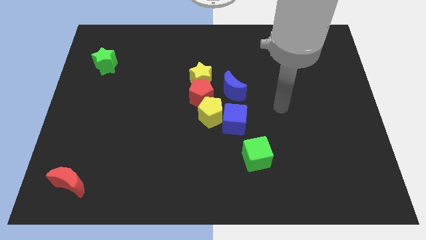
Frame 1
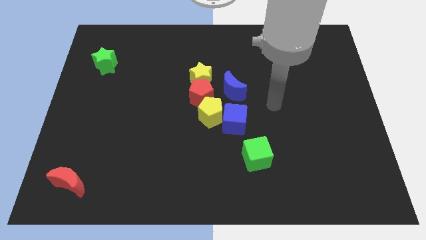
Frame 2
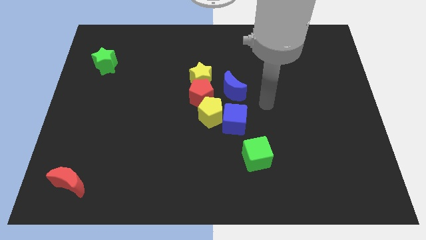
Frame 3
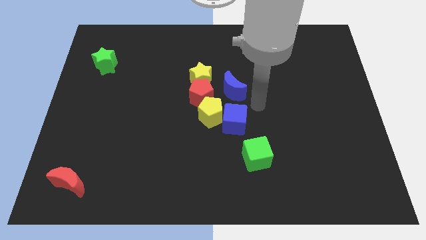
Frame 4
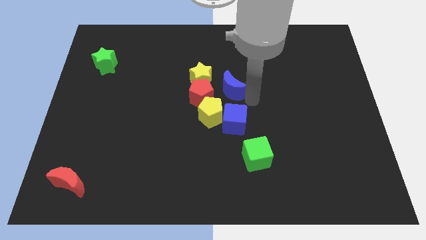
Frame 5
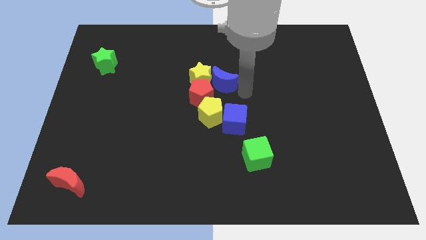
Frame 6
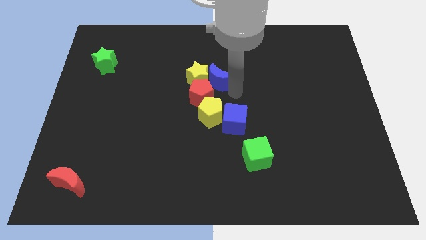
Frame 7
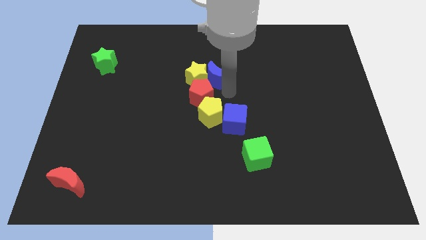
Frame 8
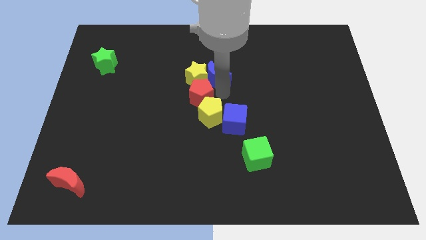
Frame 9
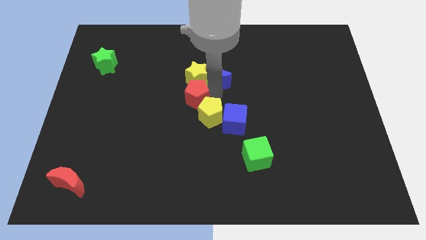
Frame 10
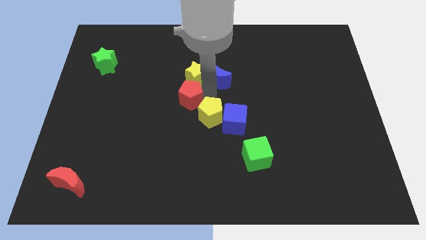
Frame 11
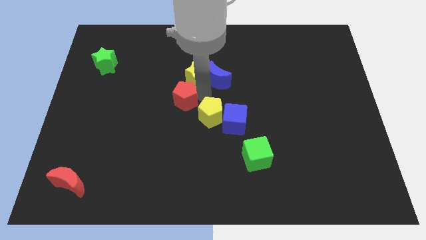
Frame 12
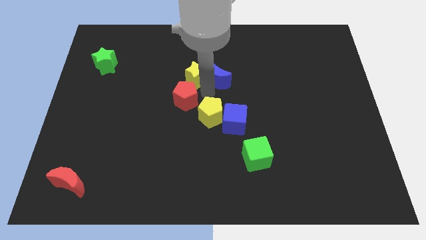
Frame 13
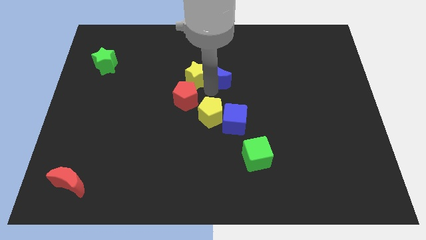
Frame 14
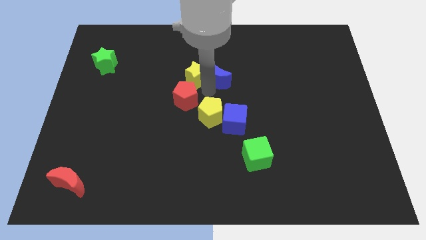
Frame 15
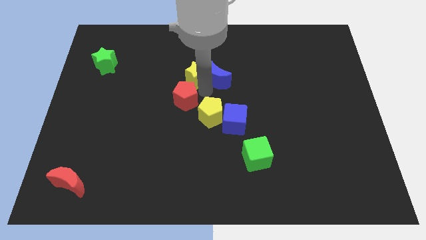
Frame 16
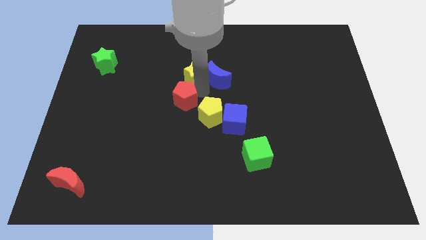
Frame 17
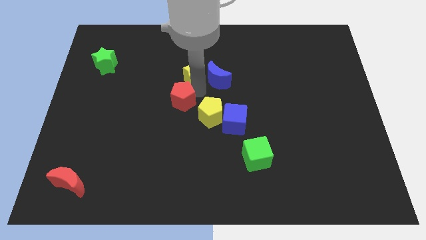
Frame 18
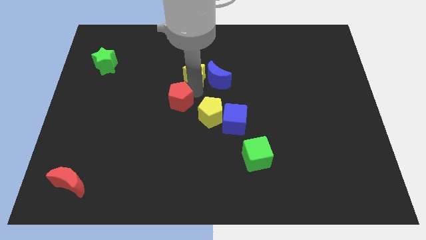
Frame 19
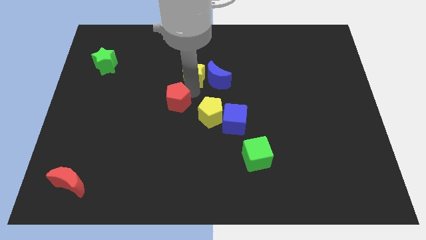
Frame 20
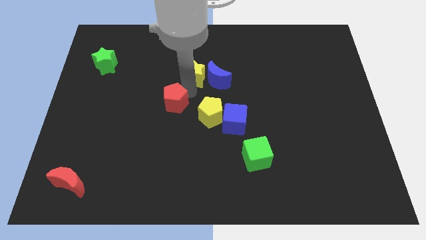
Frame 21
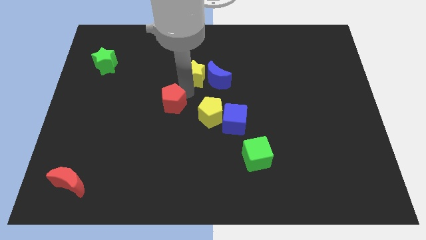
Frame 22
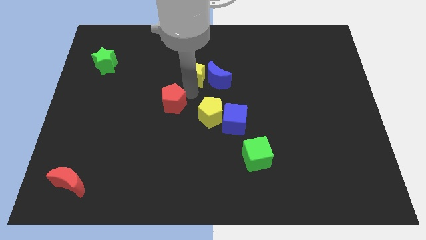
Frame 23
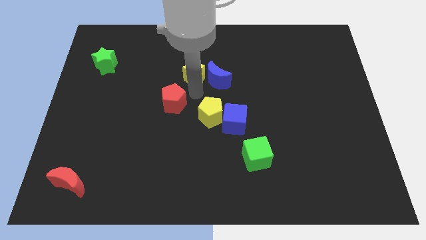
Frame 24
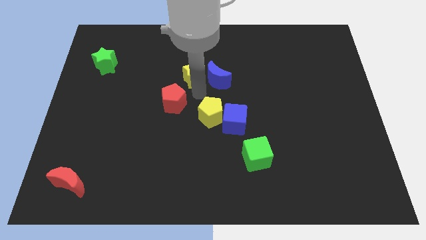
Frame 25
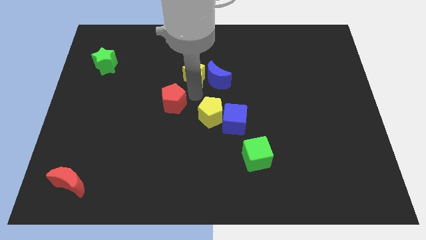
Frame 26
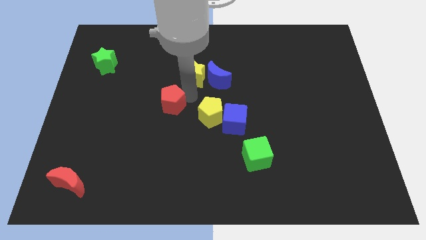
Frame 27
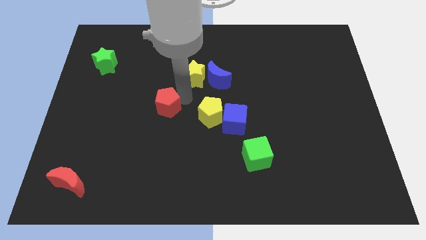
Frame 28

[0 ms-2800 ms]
move the red pentagon away from the yellow star, yellow pentagon, and blue moon

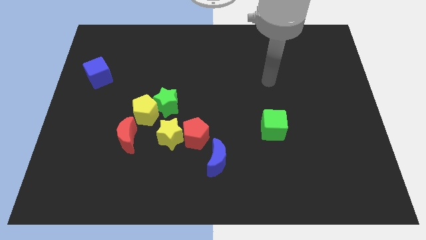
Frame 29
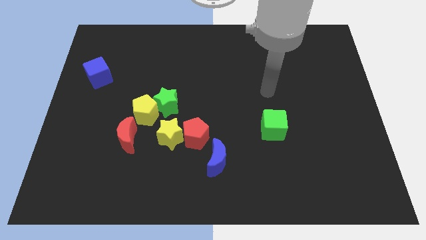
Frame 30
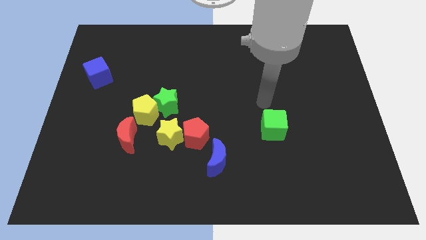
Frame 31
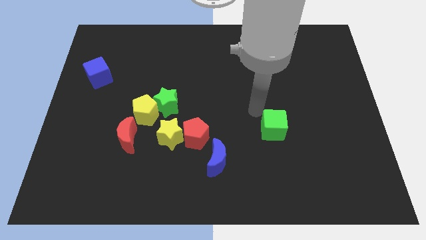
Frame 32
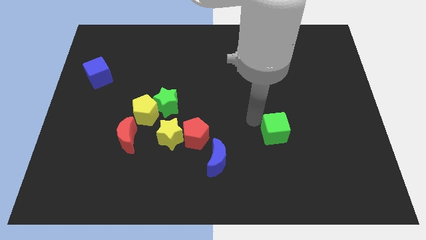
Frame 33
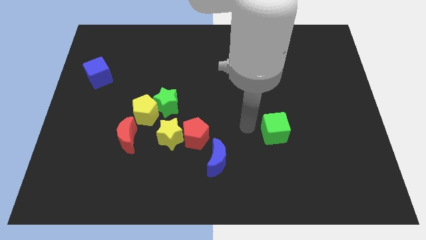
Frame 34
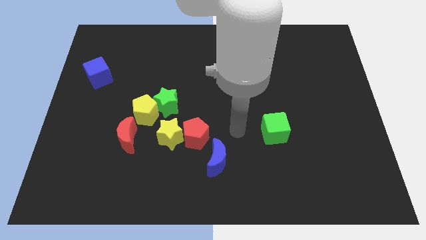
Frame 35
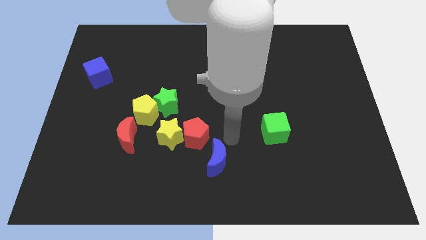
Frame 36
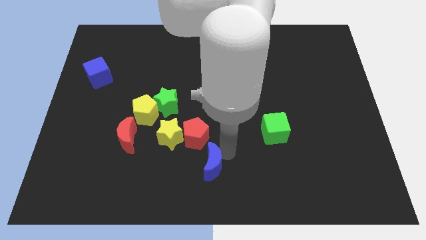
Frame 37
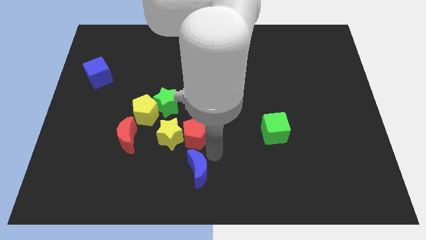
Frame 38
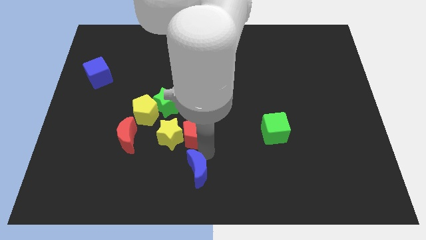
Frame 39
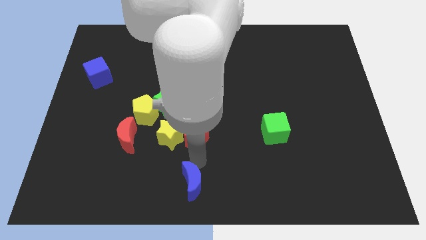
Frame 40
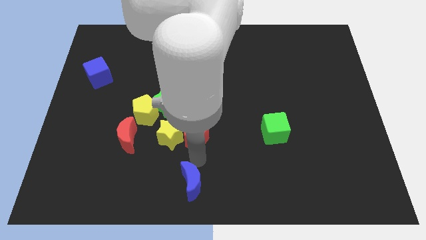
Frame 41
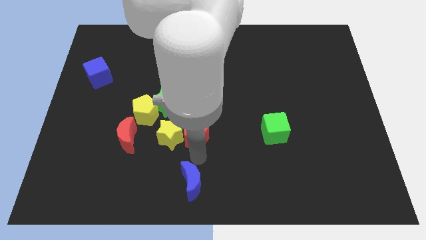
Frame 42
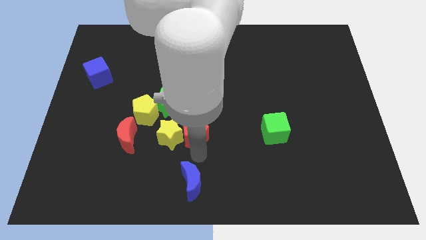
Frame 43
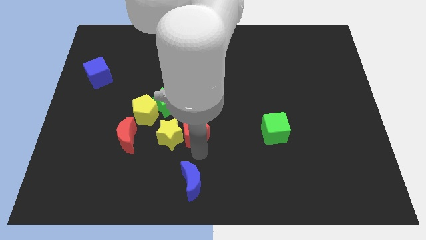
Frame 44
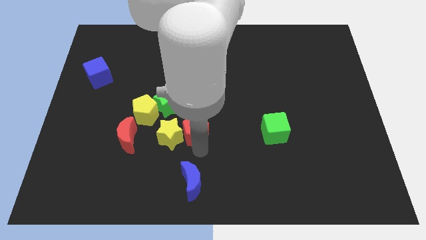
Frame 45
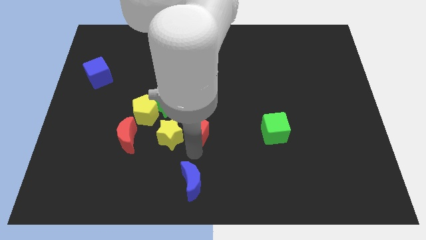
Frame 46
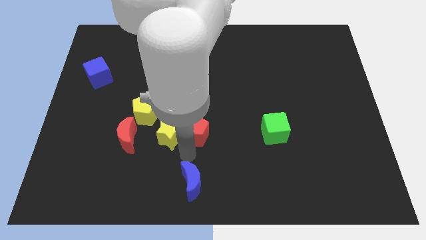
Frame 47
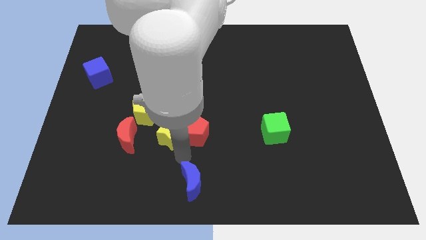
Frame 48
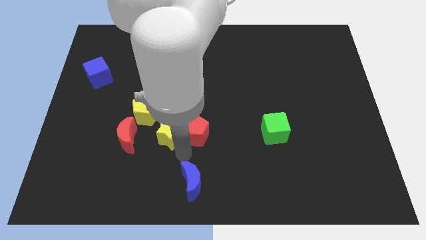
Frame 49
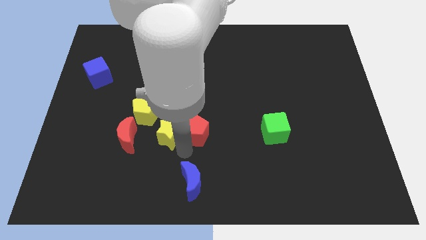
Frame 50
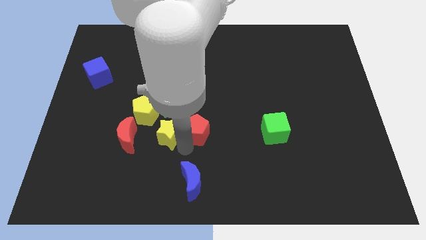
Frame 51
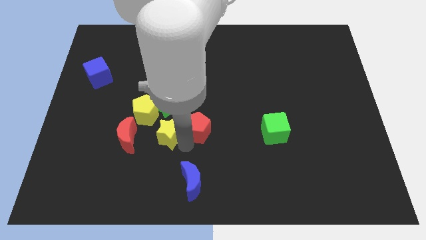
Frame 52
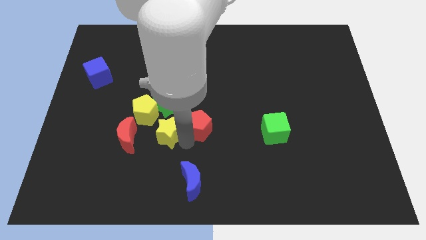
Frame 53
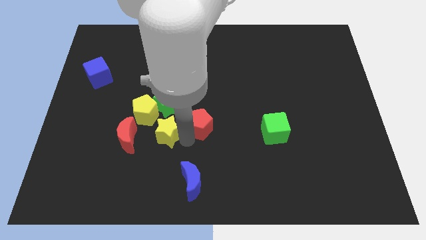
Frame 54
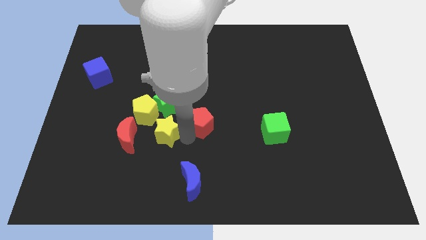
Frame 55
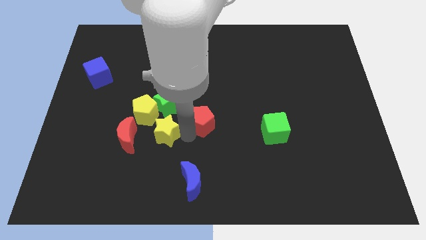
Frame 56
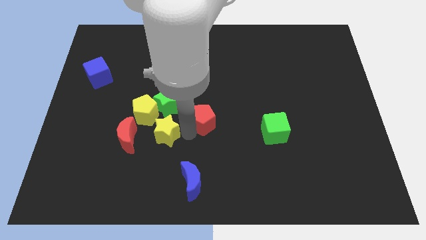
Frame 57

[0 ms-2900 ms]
pull the red pentagon apart from the yellow star and blue moon

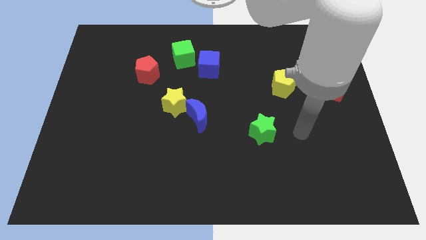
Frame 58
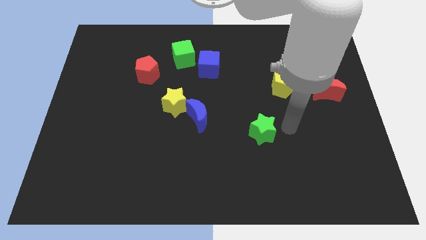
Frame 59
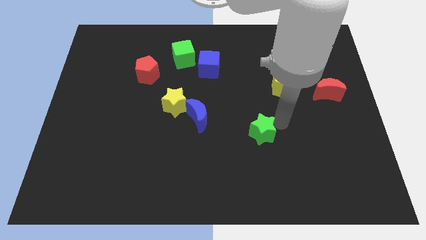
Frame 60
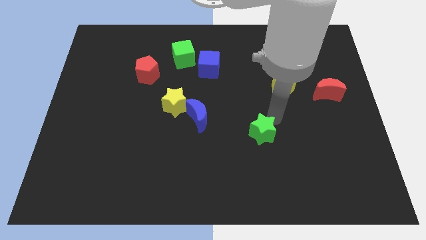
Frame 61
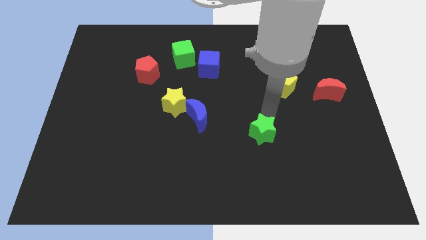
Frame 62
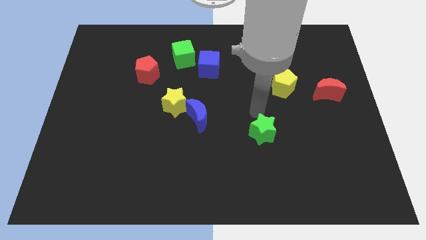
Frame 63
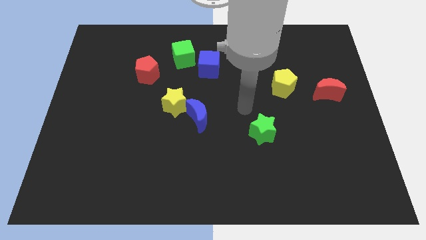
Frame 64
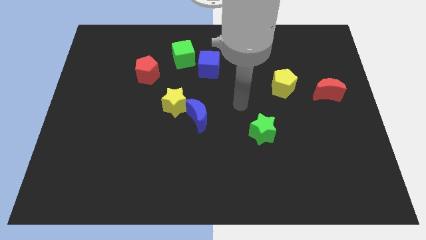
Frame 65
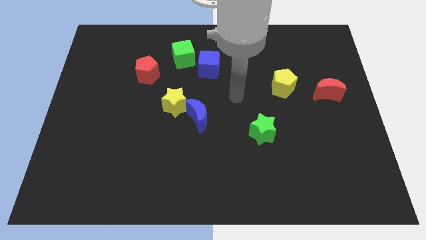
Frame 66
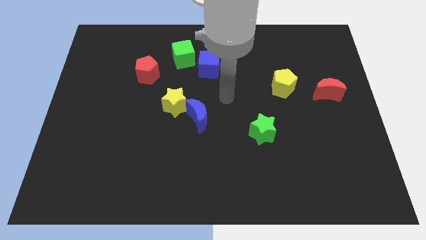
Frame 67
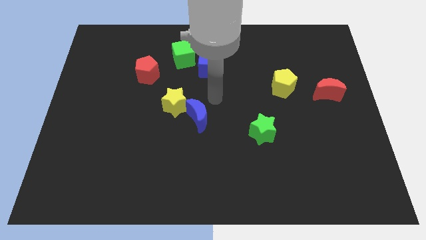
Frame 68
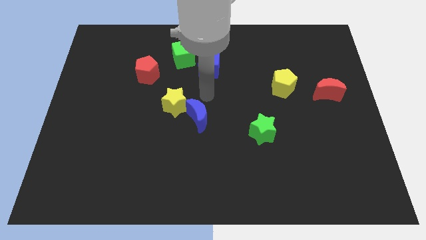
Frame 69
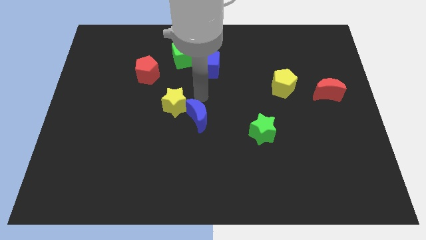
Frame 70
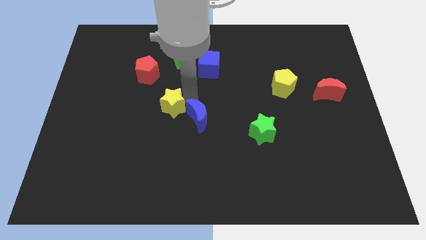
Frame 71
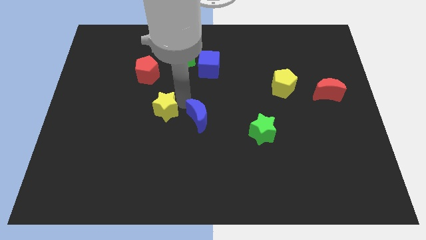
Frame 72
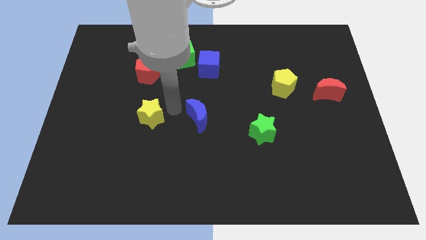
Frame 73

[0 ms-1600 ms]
move the blue moon away from the yellow star

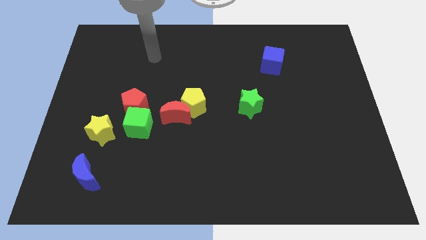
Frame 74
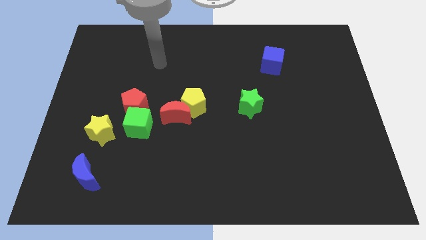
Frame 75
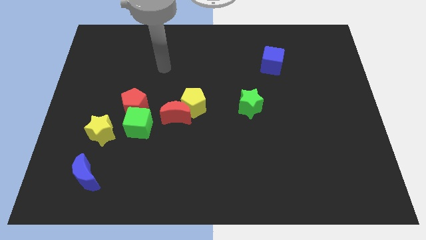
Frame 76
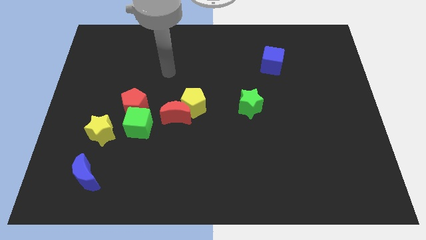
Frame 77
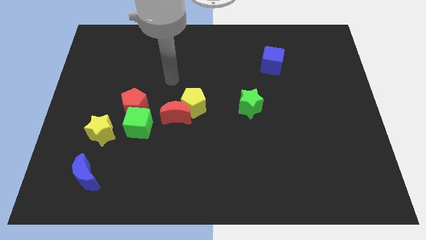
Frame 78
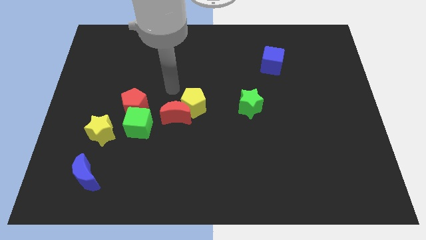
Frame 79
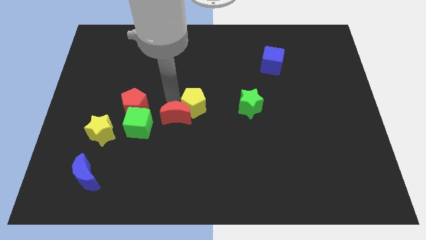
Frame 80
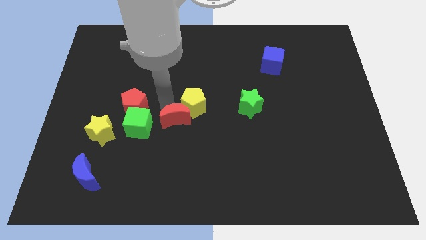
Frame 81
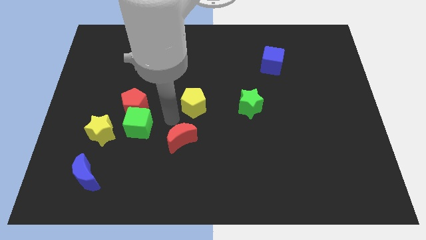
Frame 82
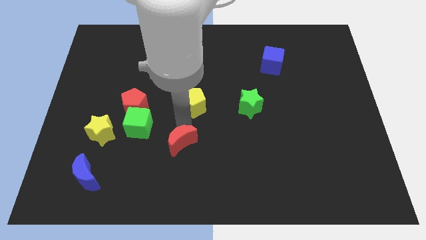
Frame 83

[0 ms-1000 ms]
move the yellow pentagon away from the red moon

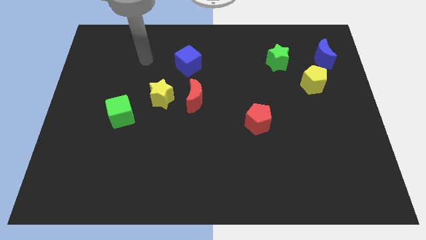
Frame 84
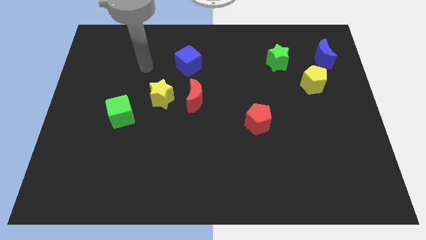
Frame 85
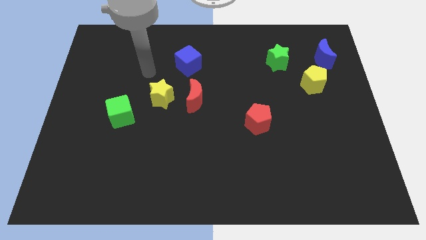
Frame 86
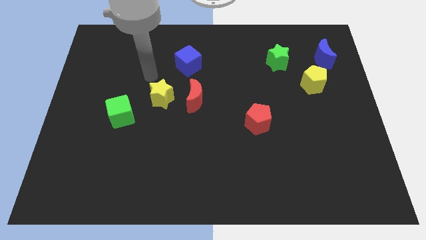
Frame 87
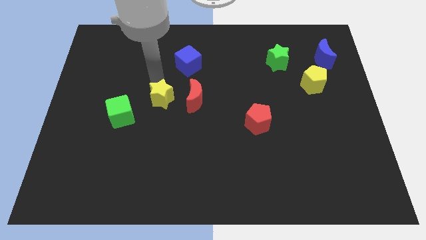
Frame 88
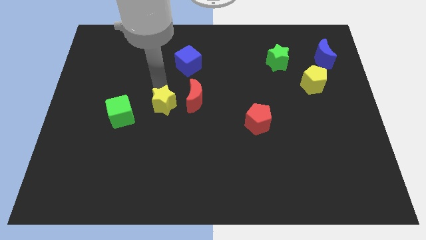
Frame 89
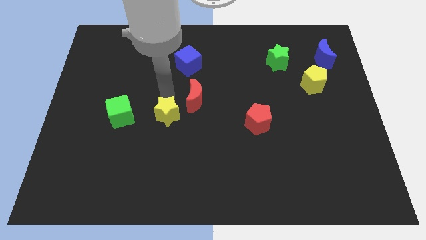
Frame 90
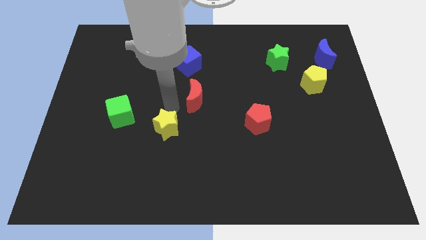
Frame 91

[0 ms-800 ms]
move the red moon away from the yellow star

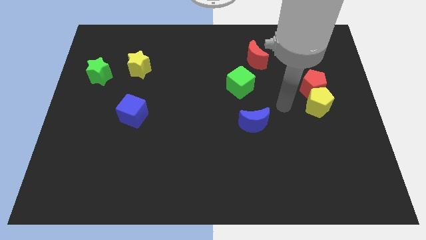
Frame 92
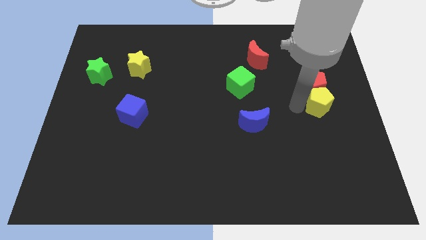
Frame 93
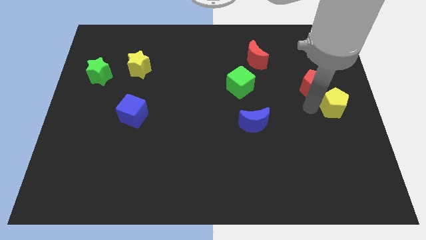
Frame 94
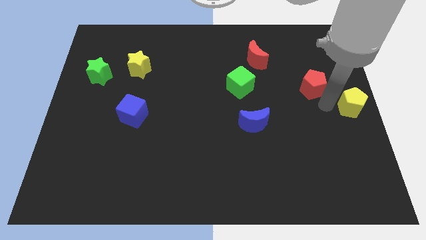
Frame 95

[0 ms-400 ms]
pull the red pentagon apart from the yellow pentagon
